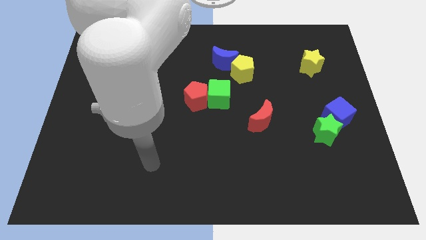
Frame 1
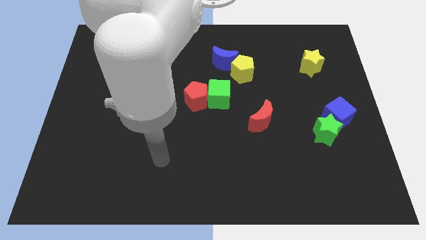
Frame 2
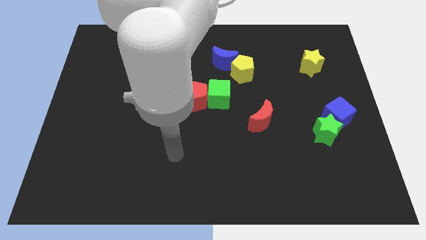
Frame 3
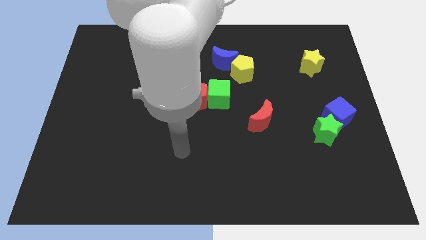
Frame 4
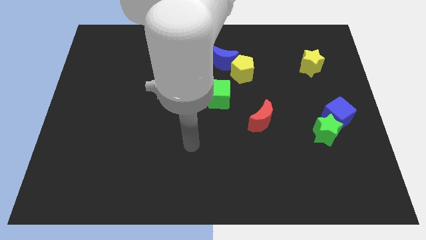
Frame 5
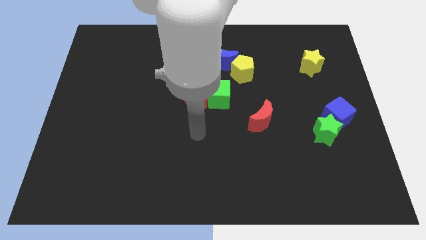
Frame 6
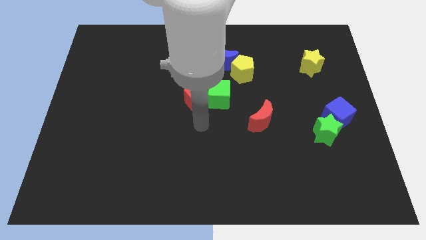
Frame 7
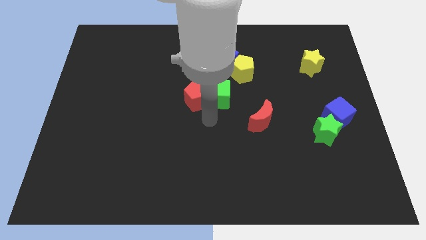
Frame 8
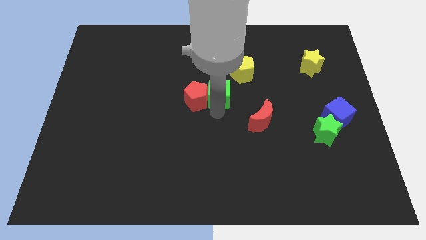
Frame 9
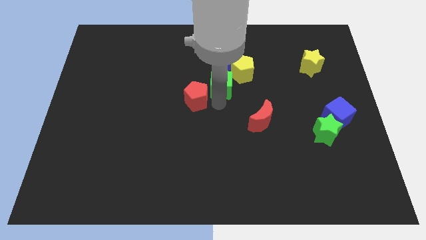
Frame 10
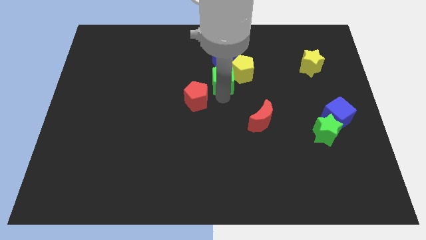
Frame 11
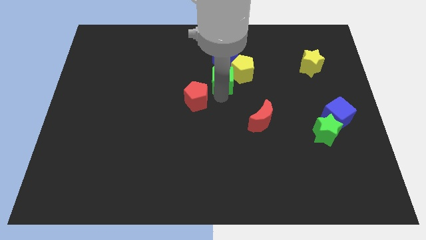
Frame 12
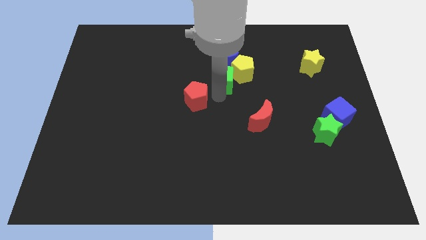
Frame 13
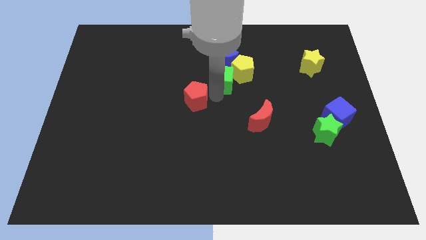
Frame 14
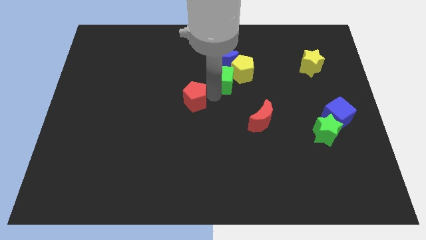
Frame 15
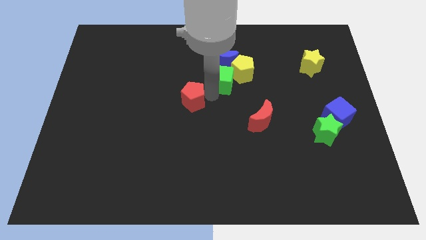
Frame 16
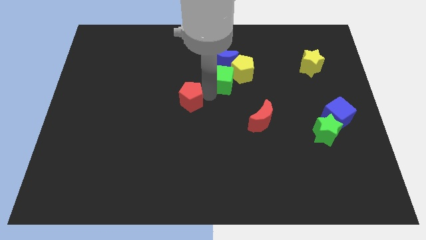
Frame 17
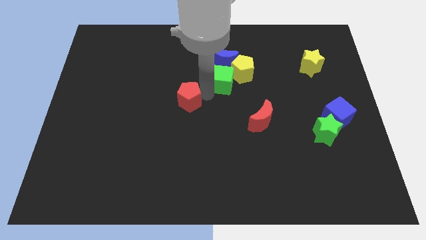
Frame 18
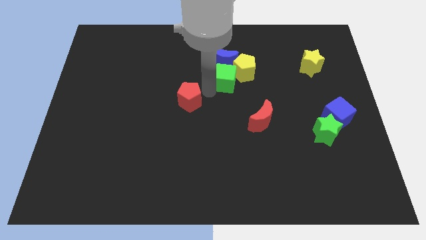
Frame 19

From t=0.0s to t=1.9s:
separate the red pentagon from the green cube

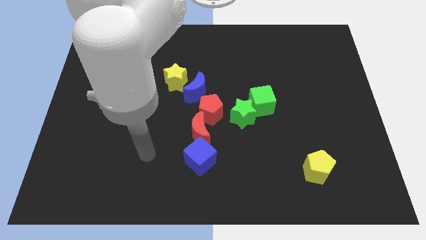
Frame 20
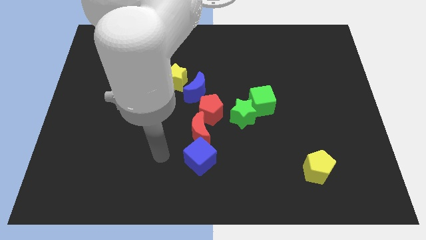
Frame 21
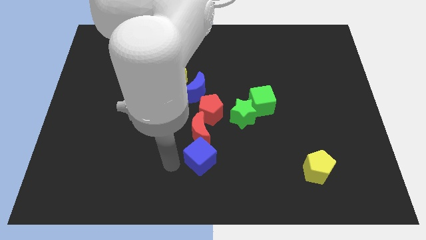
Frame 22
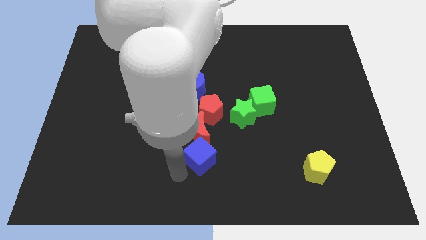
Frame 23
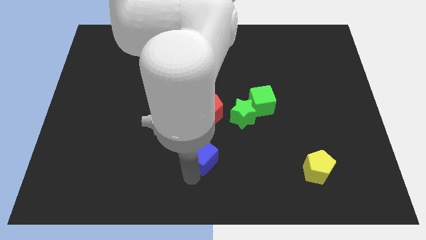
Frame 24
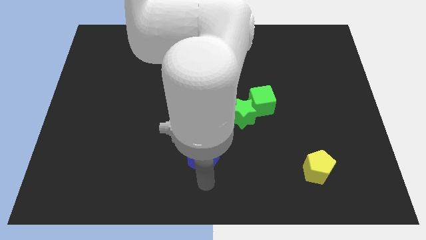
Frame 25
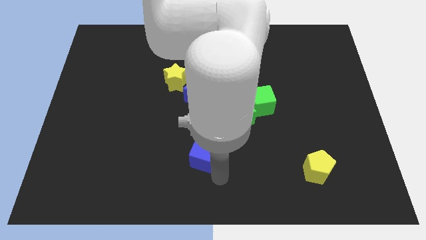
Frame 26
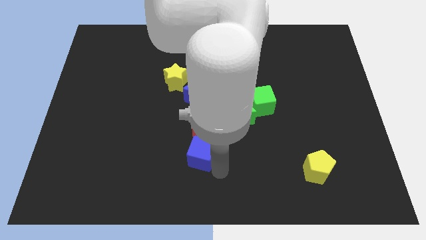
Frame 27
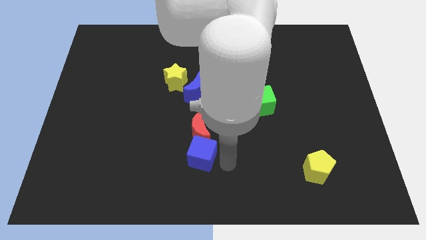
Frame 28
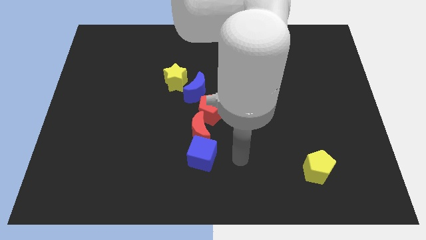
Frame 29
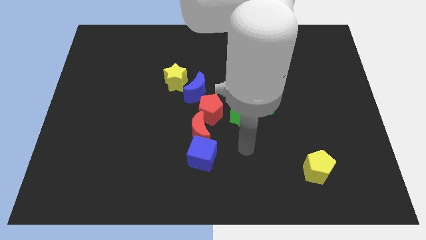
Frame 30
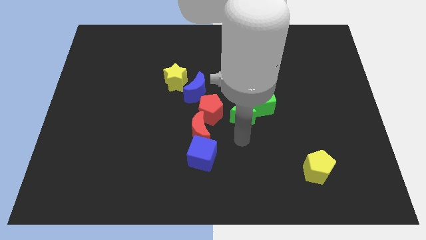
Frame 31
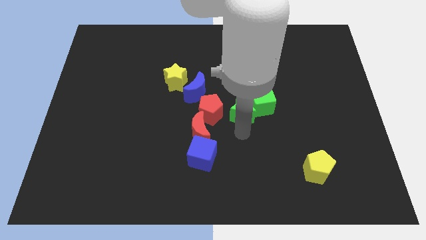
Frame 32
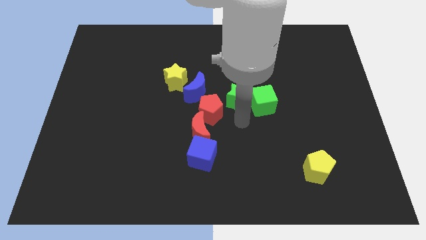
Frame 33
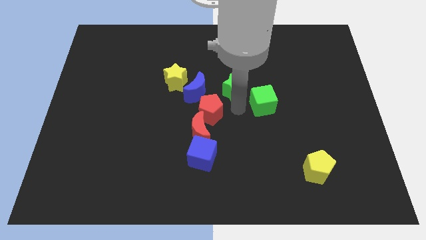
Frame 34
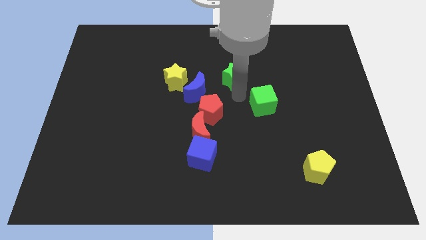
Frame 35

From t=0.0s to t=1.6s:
separate the green cube from the green star

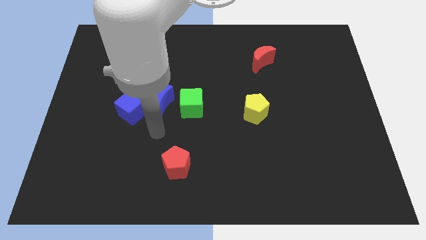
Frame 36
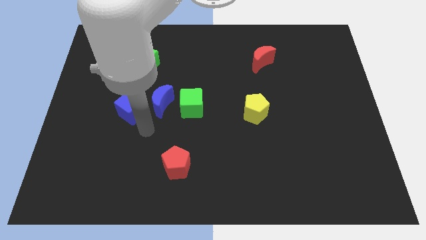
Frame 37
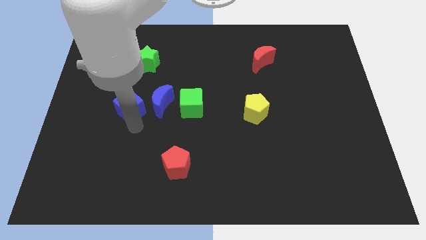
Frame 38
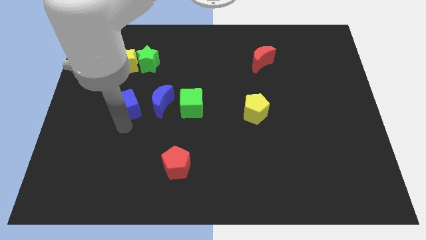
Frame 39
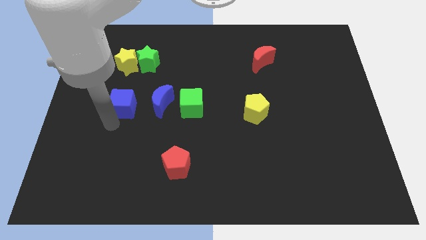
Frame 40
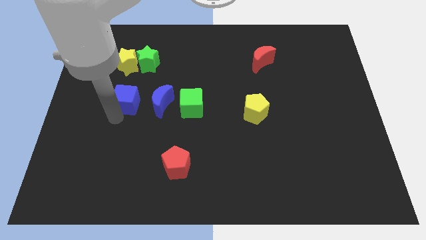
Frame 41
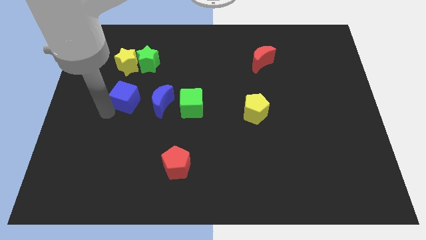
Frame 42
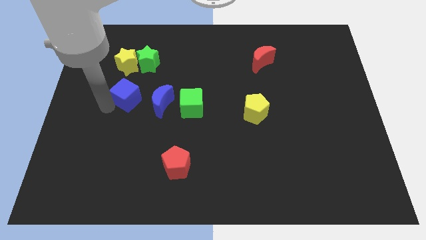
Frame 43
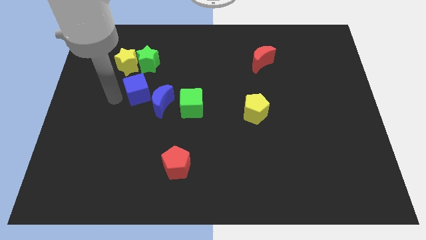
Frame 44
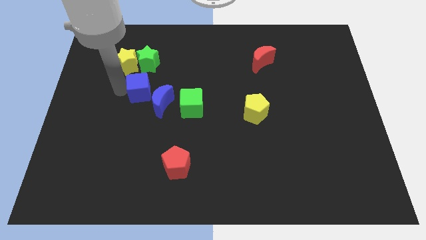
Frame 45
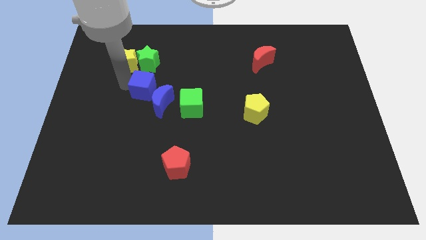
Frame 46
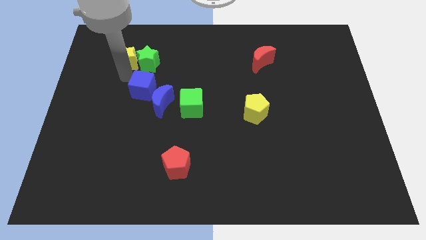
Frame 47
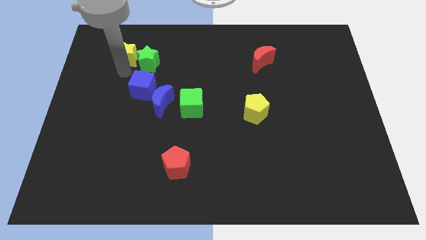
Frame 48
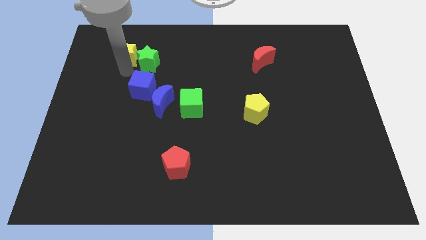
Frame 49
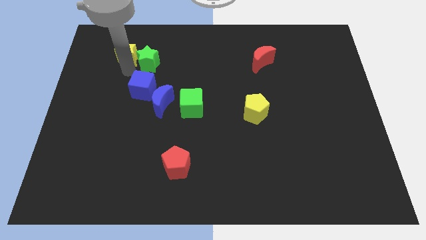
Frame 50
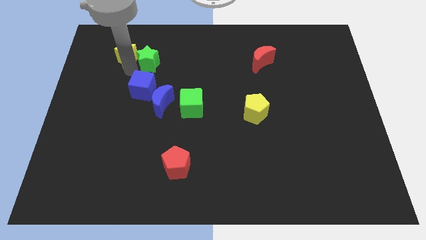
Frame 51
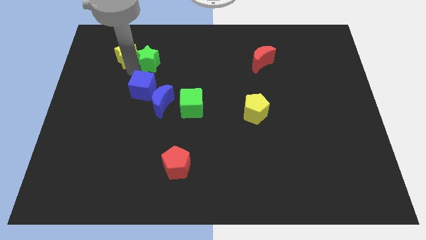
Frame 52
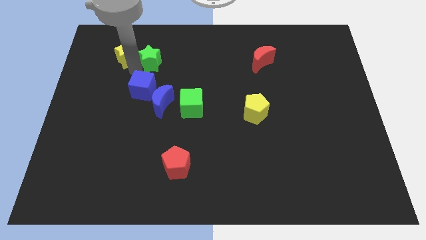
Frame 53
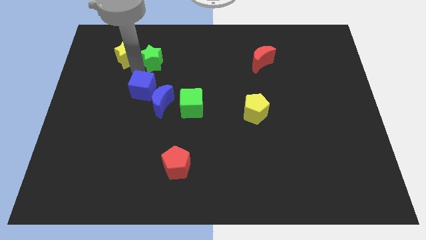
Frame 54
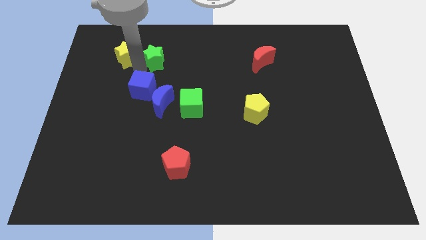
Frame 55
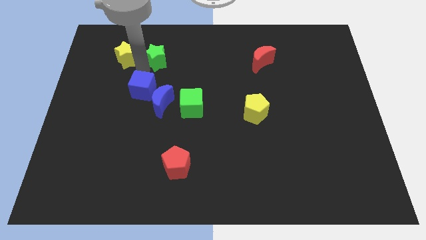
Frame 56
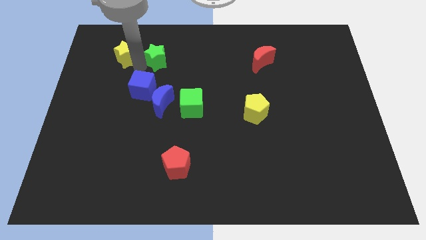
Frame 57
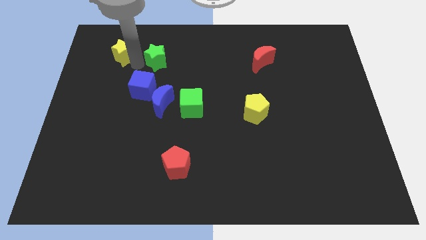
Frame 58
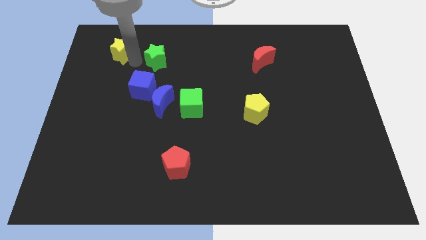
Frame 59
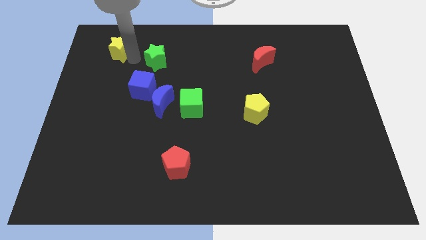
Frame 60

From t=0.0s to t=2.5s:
separate the green star from the yellow star

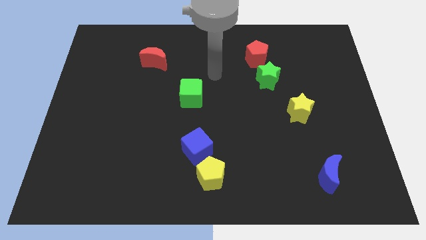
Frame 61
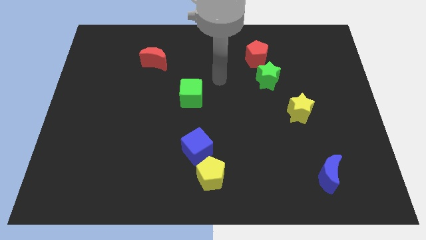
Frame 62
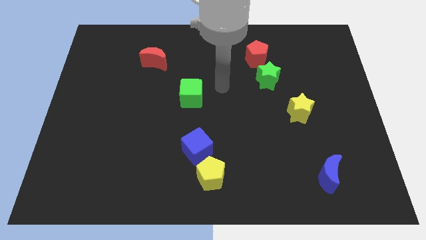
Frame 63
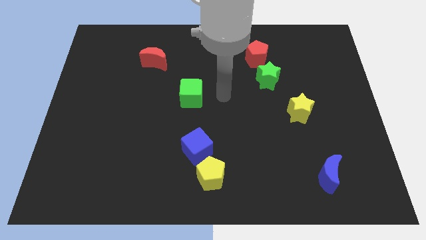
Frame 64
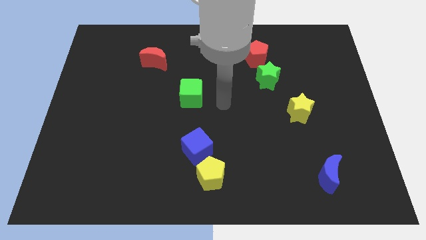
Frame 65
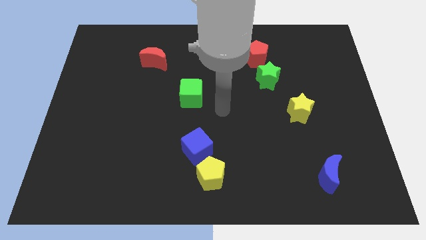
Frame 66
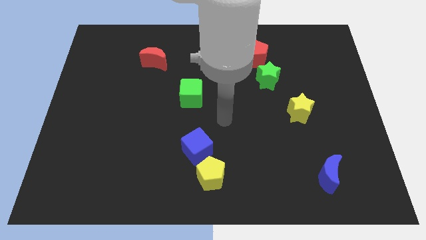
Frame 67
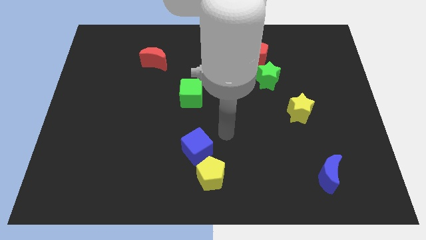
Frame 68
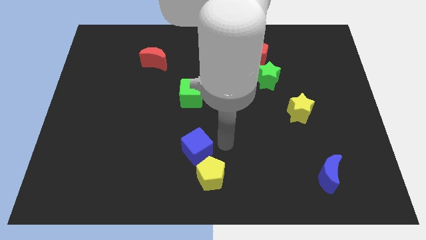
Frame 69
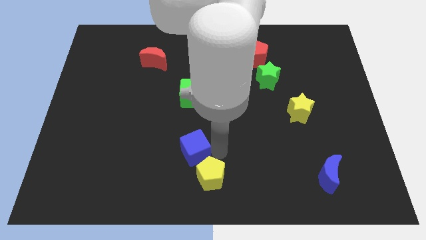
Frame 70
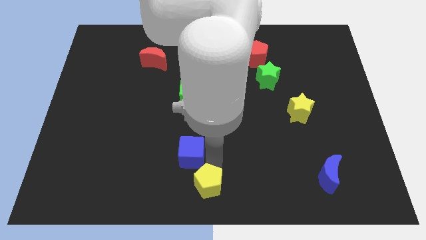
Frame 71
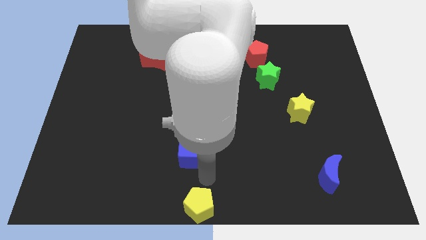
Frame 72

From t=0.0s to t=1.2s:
pull the blue cube apart from the yellow pentagon

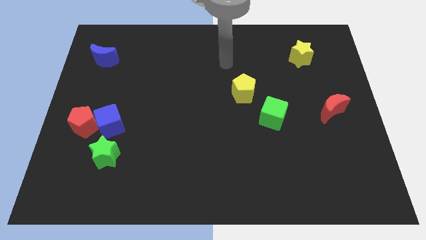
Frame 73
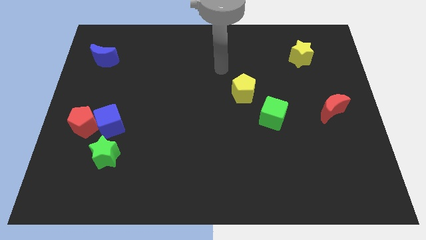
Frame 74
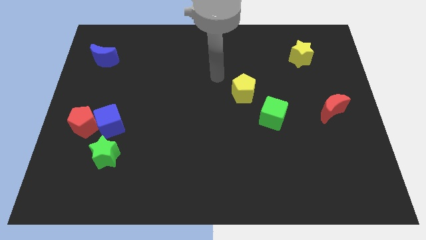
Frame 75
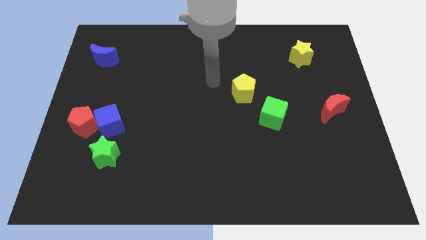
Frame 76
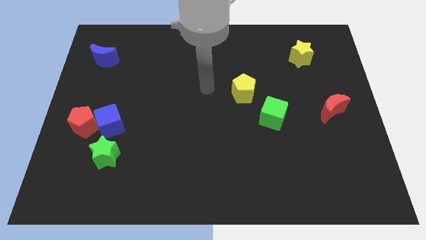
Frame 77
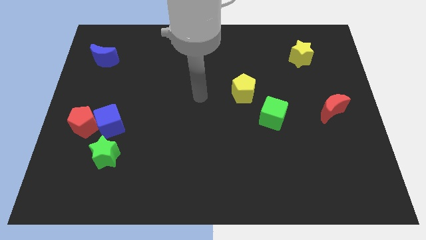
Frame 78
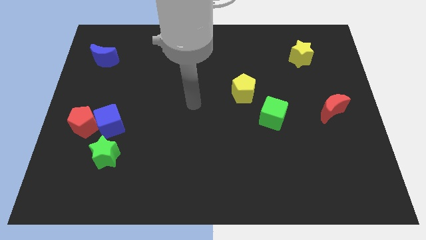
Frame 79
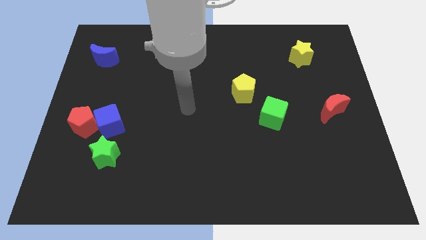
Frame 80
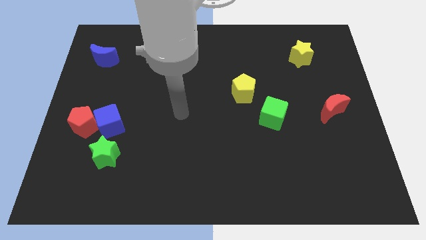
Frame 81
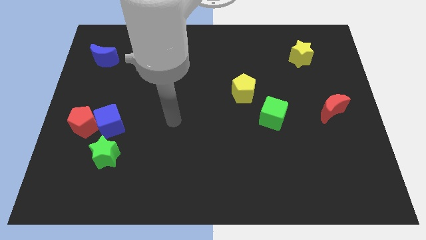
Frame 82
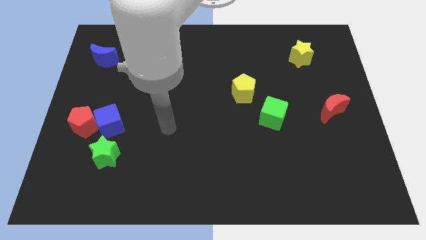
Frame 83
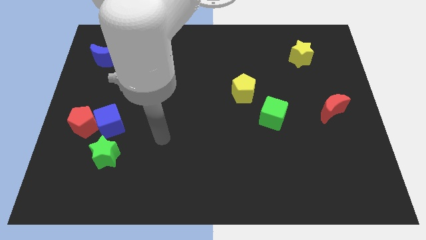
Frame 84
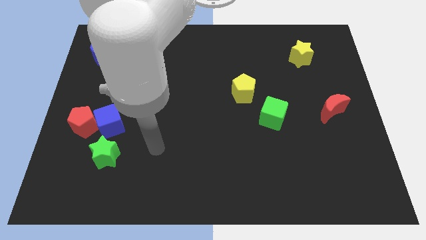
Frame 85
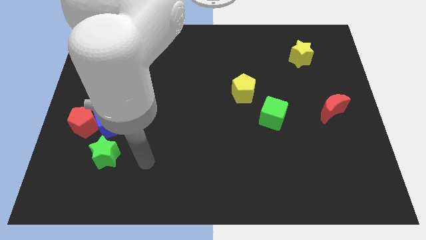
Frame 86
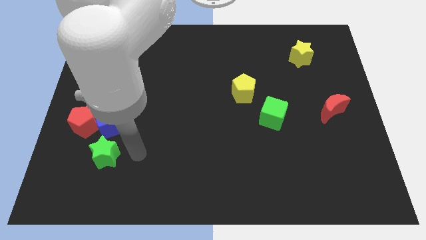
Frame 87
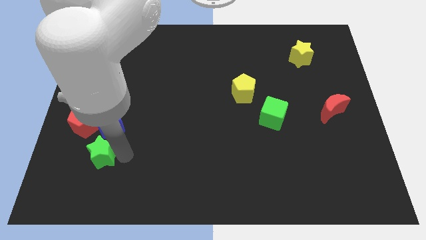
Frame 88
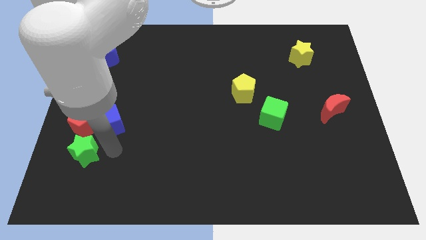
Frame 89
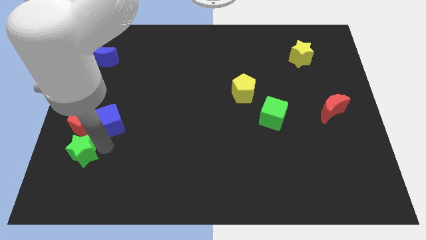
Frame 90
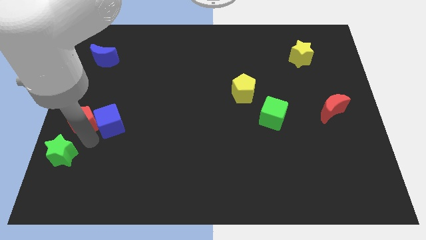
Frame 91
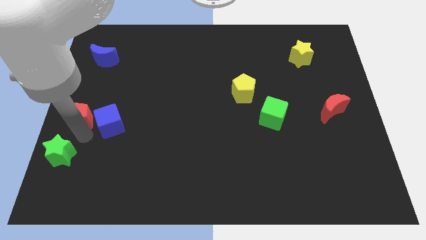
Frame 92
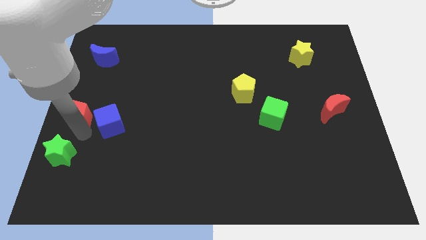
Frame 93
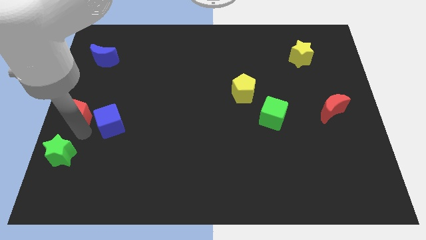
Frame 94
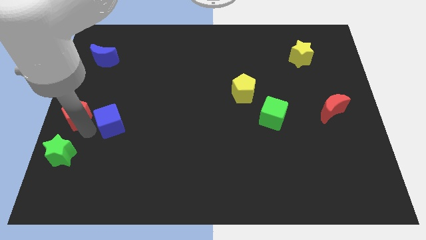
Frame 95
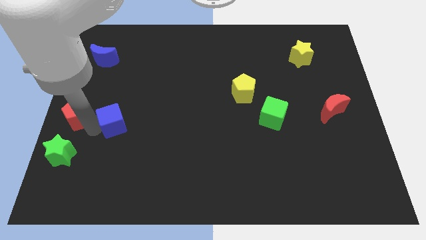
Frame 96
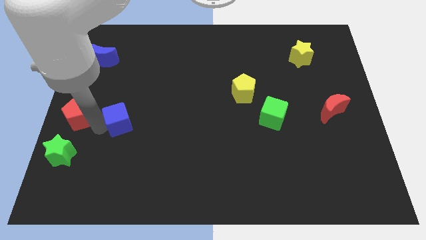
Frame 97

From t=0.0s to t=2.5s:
pull the blue cube apart from the red pentagon and green star
